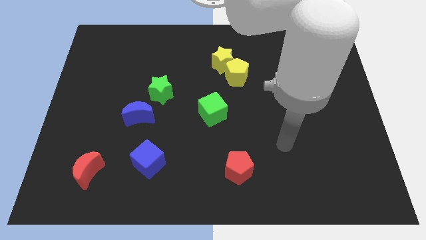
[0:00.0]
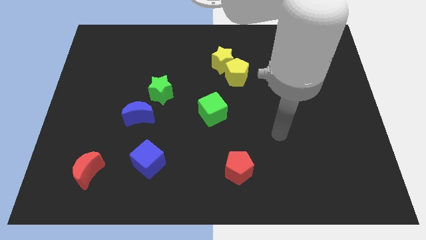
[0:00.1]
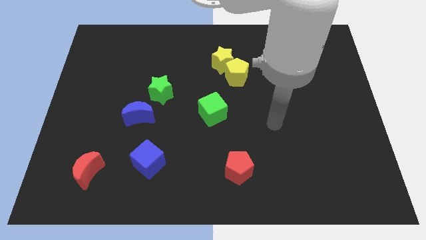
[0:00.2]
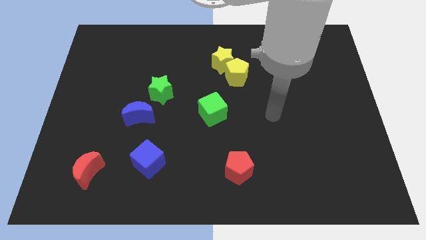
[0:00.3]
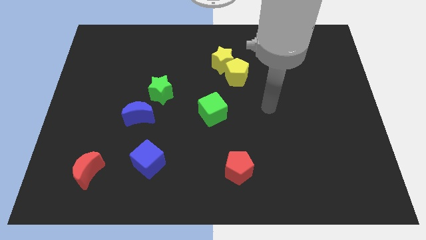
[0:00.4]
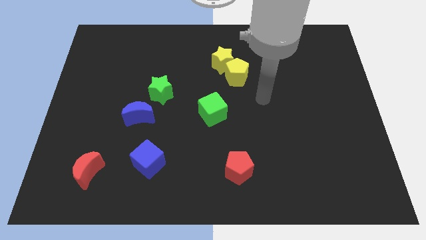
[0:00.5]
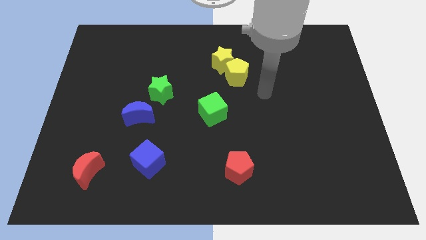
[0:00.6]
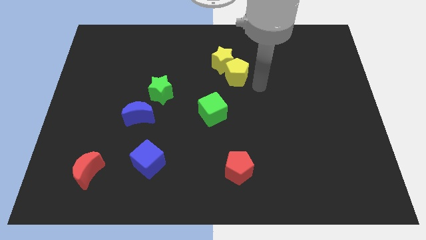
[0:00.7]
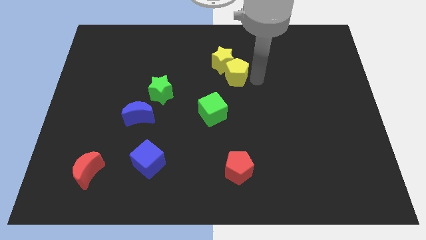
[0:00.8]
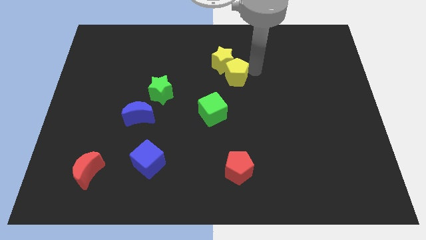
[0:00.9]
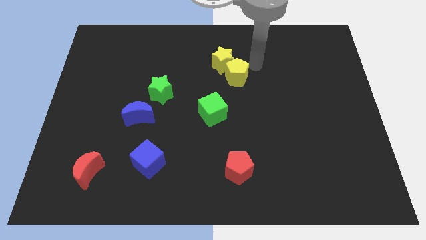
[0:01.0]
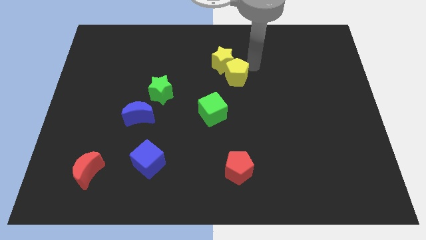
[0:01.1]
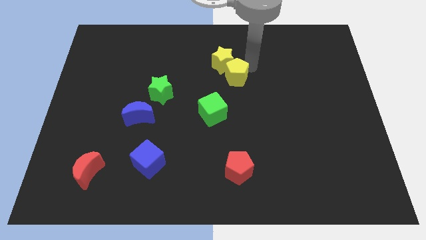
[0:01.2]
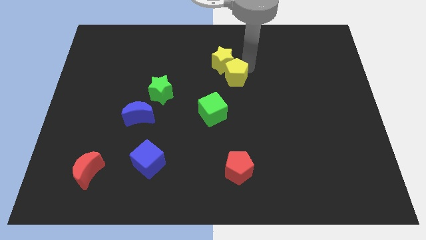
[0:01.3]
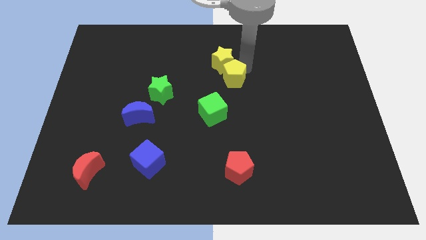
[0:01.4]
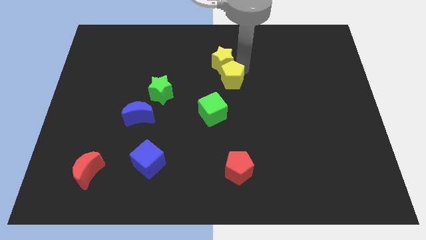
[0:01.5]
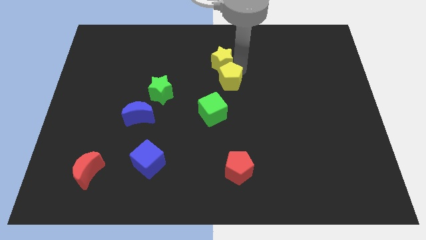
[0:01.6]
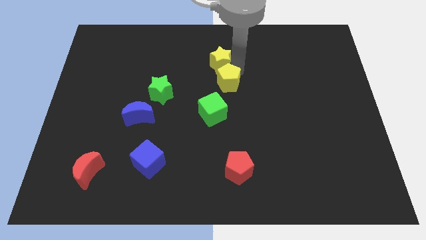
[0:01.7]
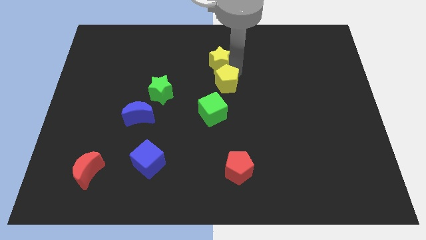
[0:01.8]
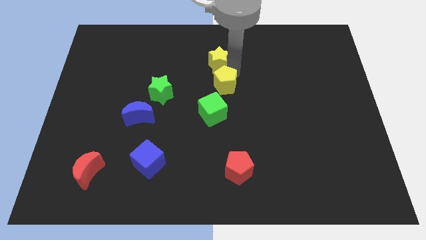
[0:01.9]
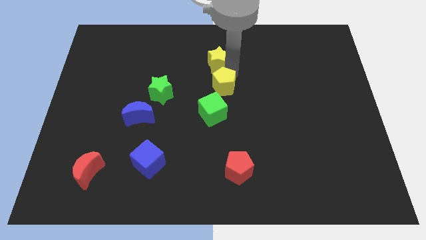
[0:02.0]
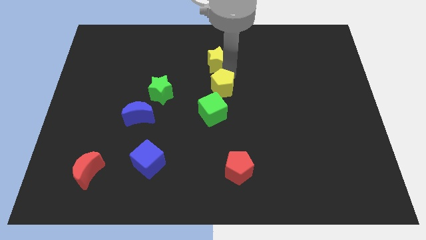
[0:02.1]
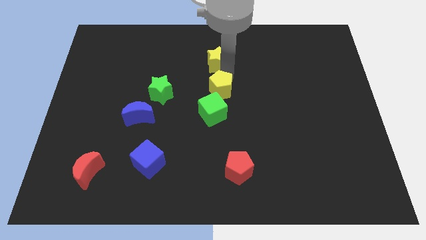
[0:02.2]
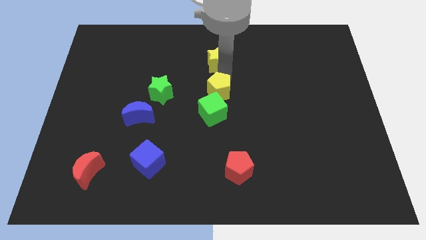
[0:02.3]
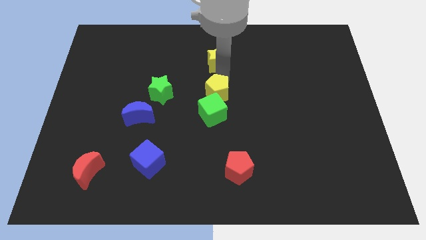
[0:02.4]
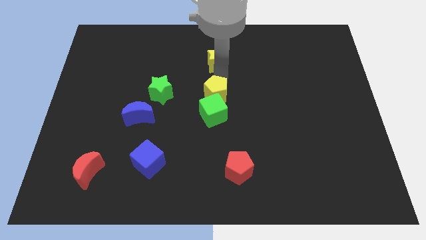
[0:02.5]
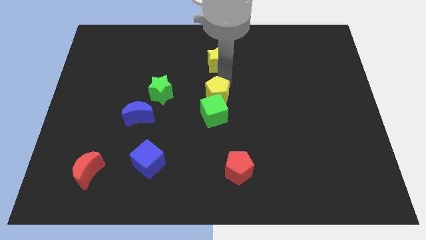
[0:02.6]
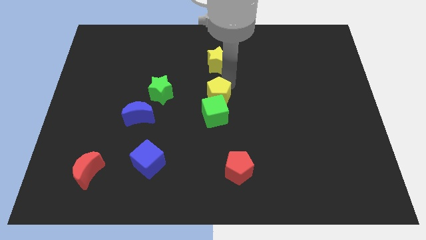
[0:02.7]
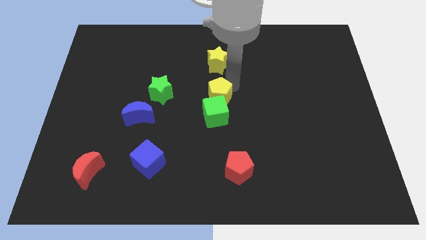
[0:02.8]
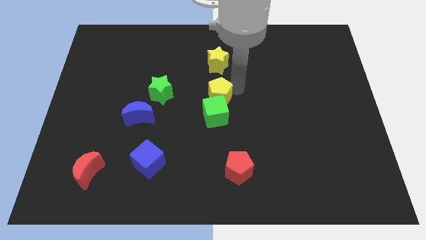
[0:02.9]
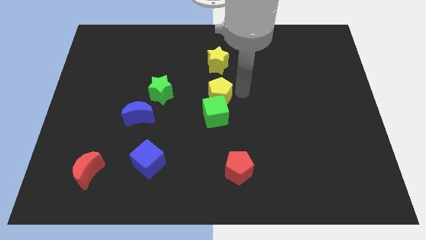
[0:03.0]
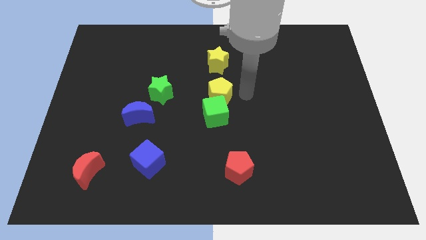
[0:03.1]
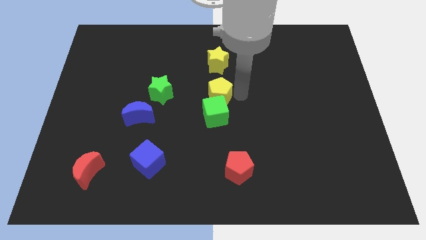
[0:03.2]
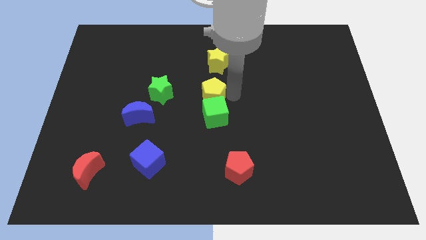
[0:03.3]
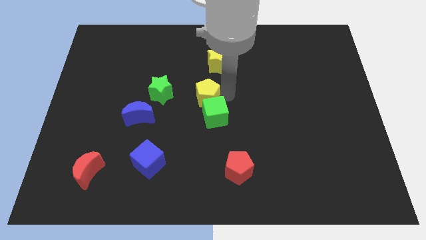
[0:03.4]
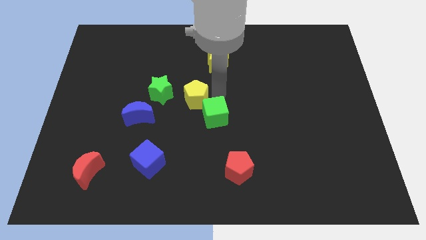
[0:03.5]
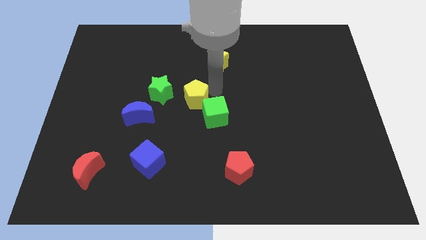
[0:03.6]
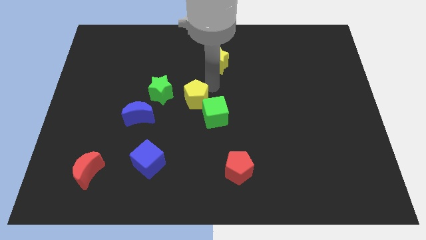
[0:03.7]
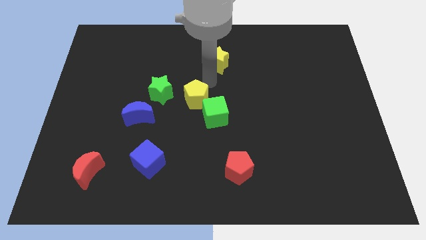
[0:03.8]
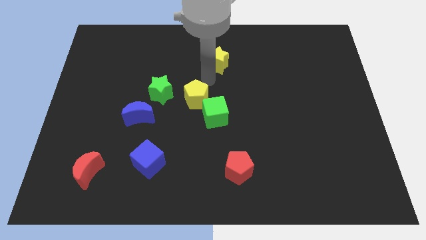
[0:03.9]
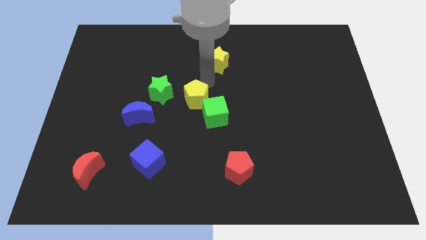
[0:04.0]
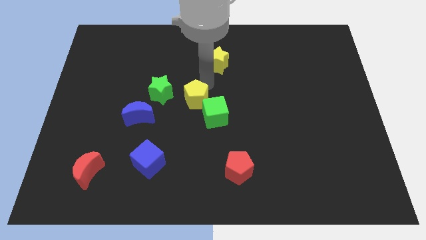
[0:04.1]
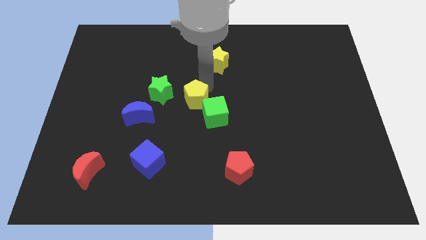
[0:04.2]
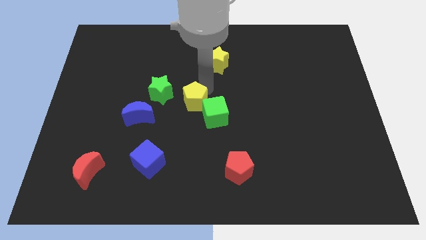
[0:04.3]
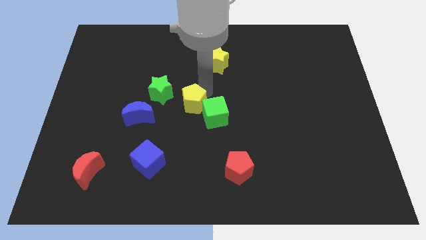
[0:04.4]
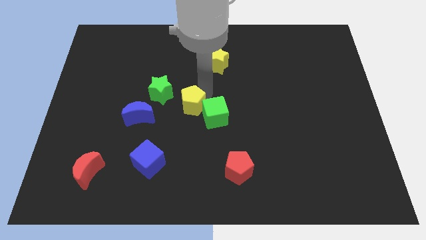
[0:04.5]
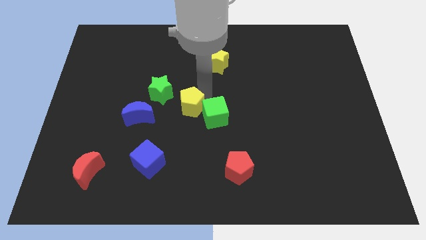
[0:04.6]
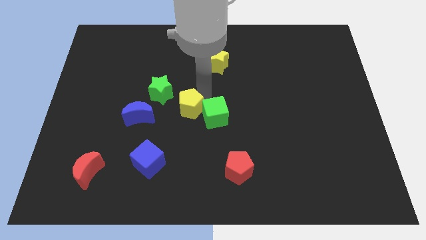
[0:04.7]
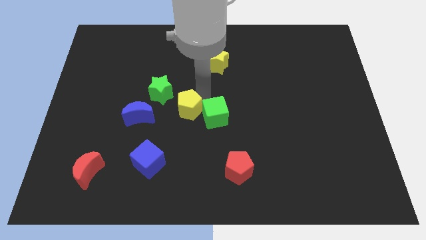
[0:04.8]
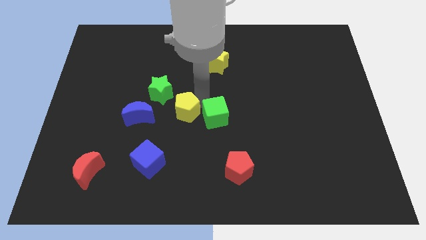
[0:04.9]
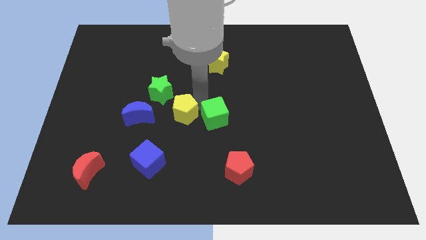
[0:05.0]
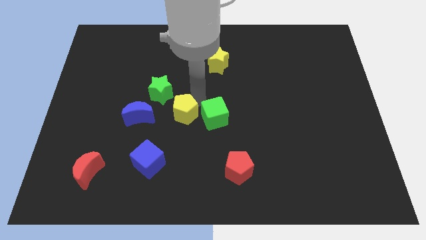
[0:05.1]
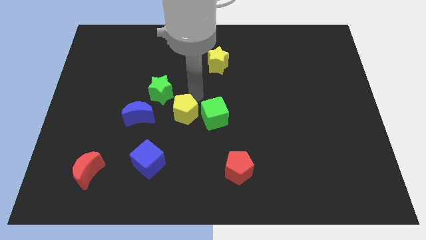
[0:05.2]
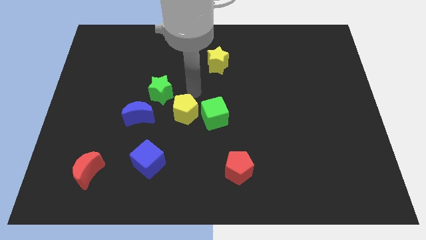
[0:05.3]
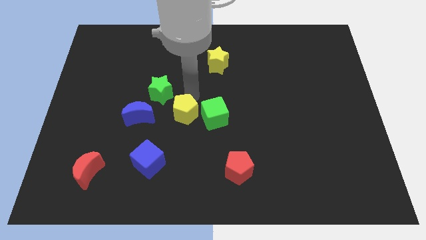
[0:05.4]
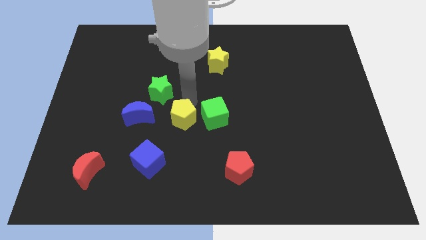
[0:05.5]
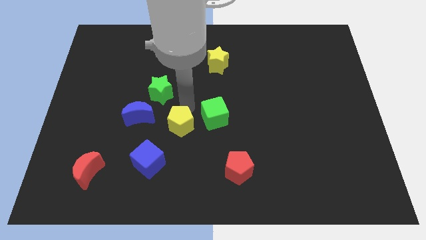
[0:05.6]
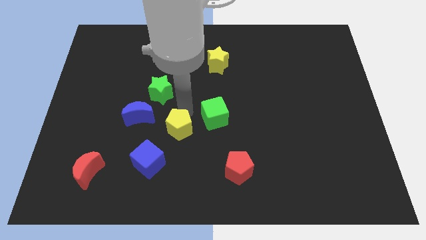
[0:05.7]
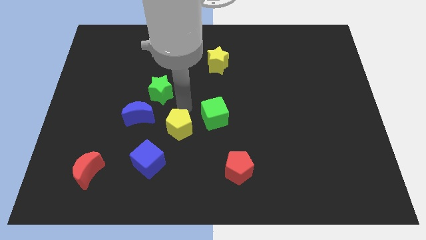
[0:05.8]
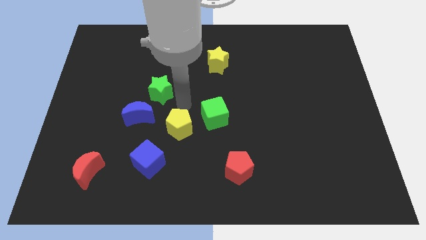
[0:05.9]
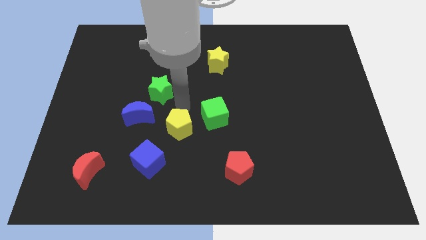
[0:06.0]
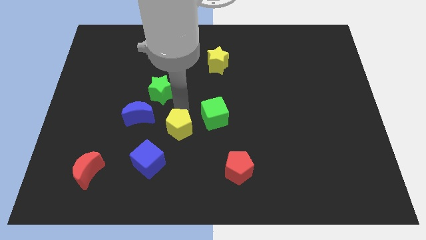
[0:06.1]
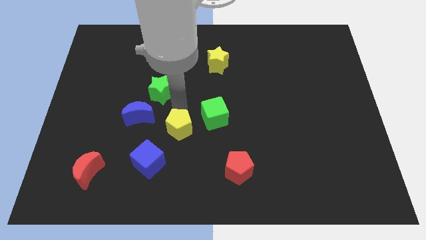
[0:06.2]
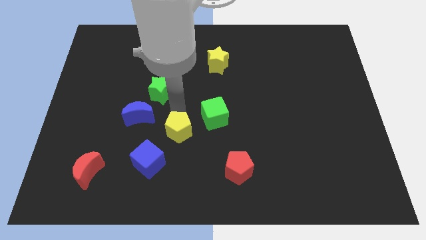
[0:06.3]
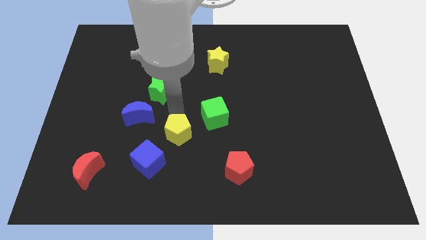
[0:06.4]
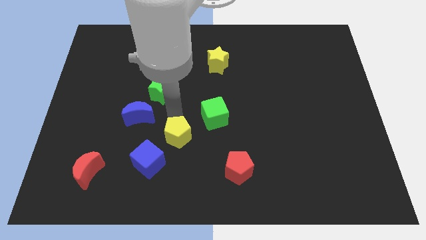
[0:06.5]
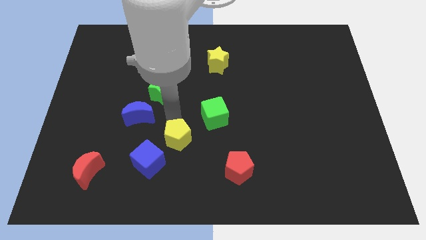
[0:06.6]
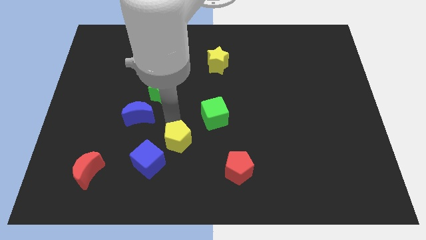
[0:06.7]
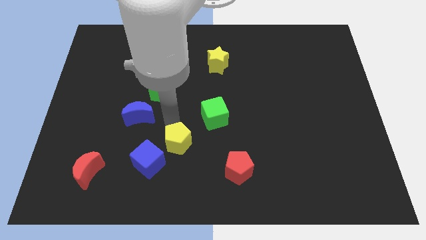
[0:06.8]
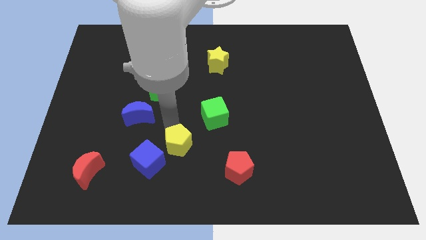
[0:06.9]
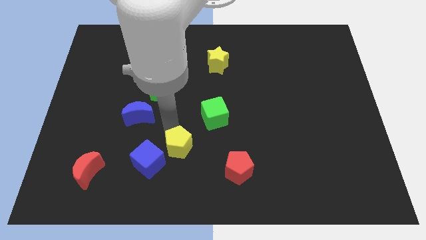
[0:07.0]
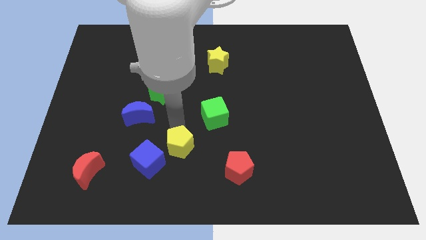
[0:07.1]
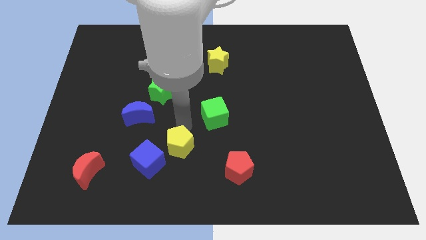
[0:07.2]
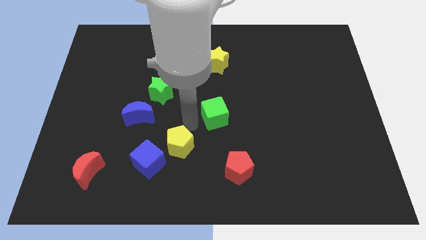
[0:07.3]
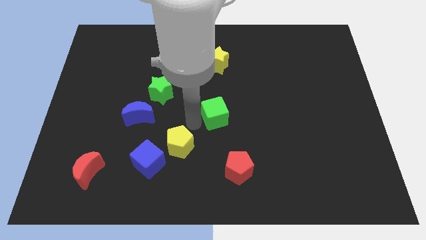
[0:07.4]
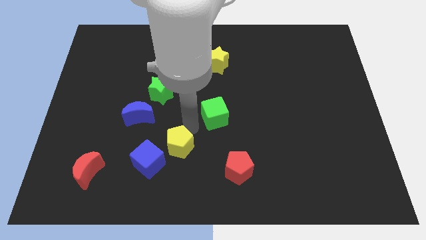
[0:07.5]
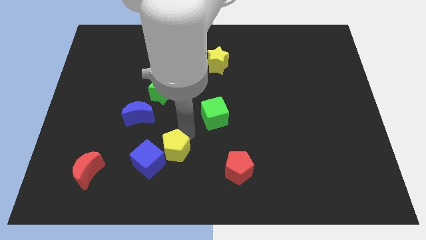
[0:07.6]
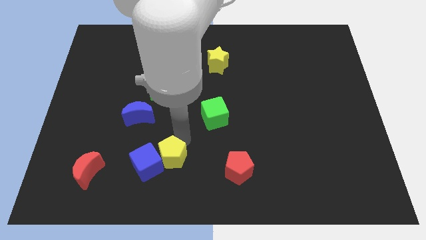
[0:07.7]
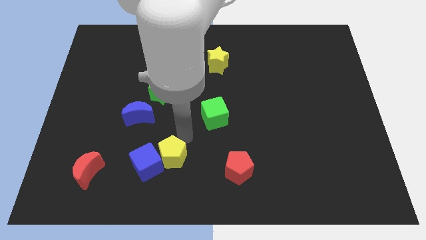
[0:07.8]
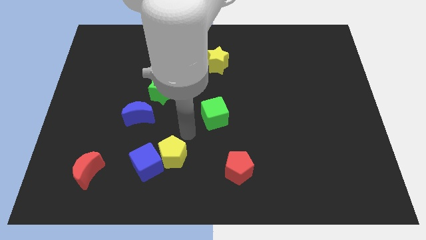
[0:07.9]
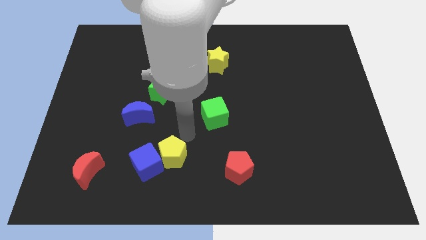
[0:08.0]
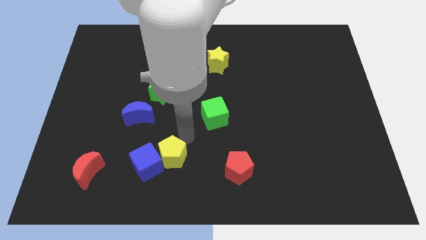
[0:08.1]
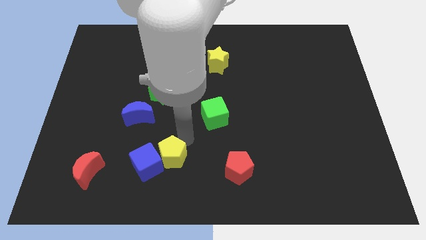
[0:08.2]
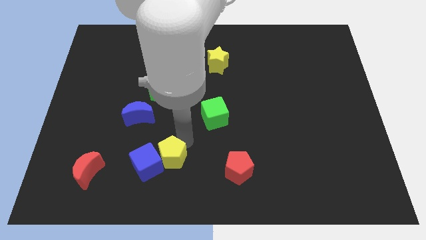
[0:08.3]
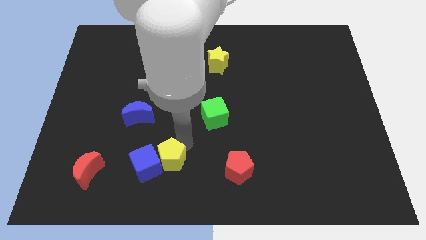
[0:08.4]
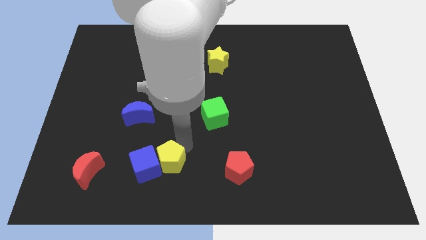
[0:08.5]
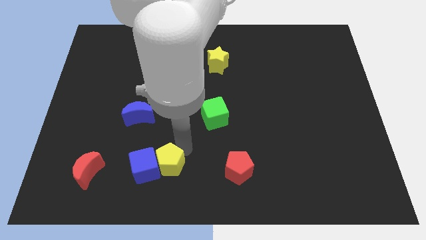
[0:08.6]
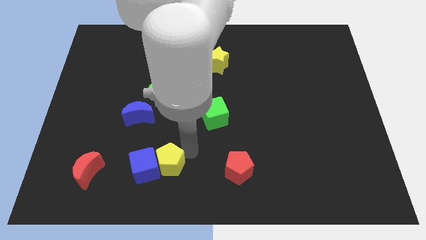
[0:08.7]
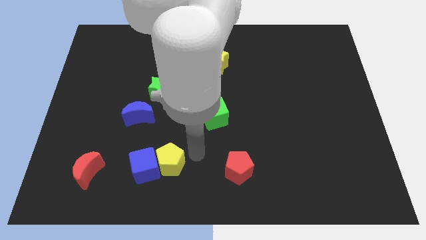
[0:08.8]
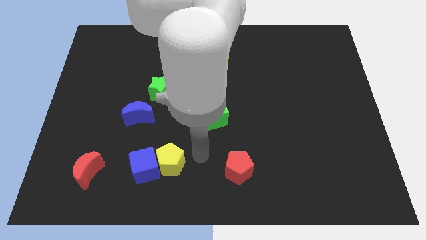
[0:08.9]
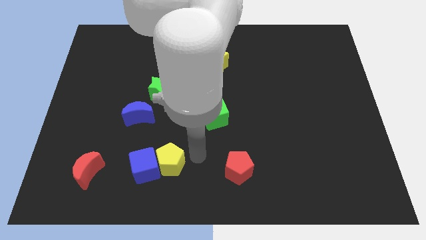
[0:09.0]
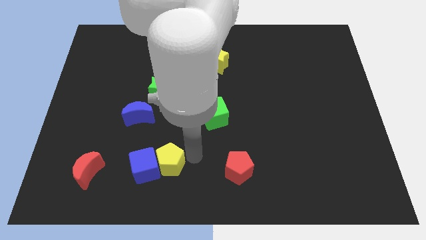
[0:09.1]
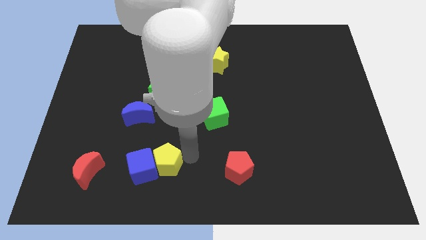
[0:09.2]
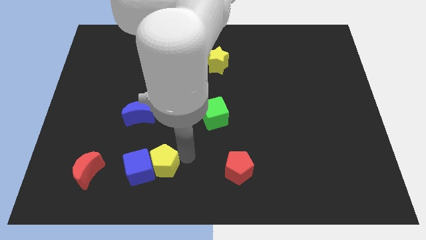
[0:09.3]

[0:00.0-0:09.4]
push the yellow pentagon to the right side of the red moon
